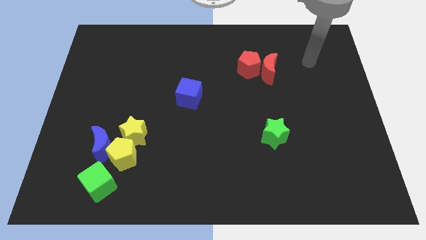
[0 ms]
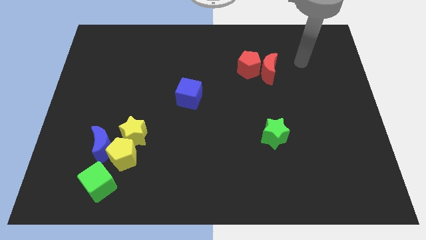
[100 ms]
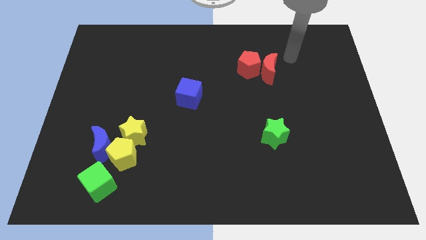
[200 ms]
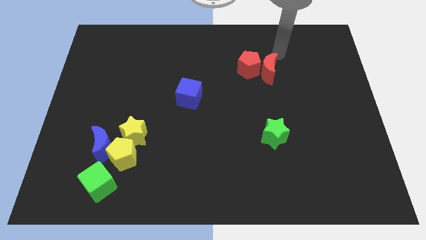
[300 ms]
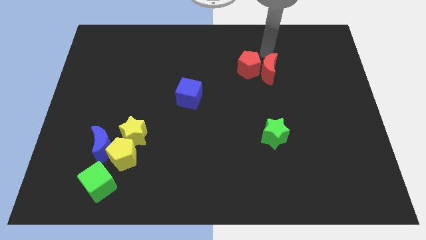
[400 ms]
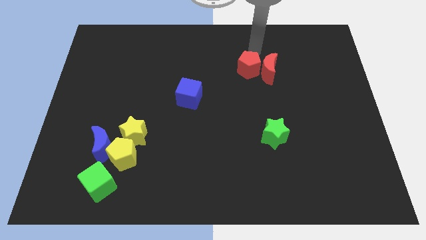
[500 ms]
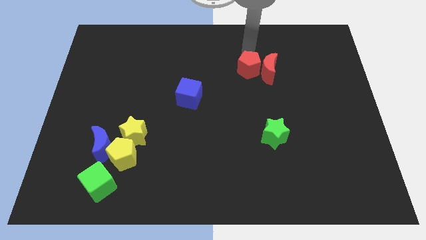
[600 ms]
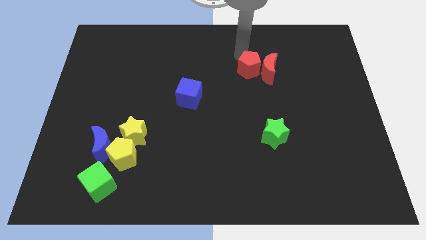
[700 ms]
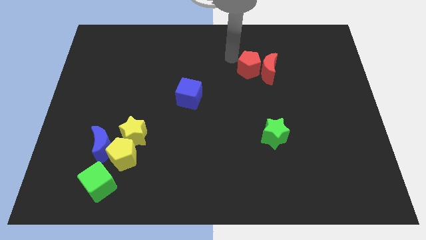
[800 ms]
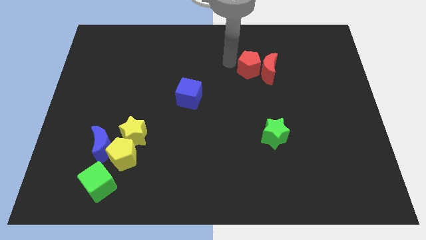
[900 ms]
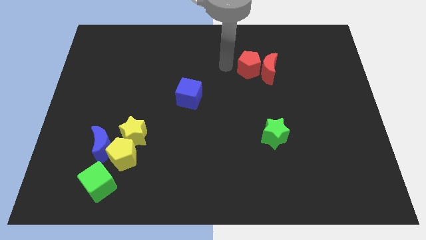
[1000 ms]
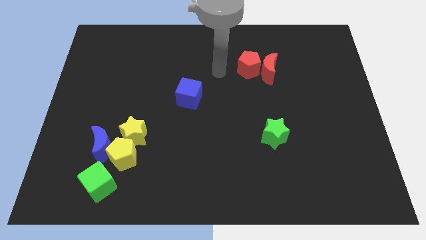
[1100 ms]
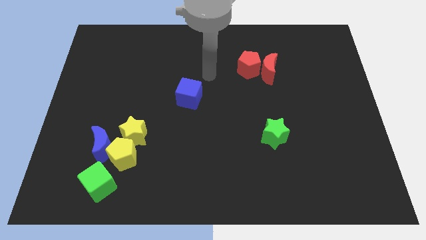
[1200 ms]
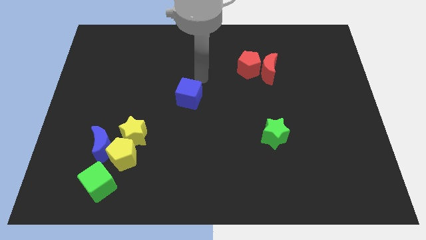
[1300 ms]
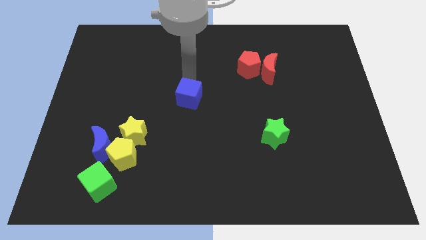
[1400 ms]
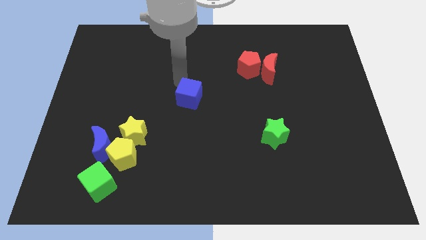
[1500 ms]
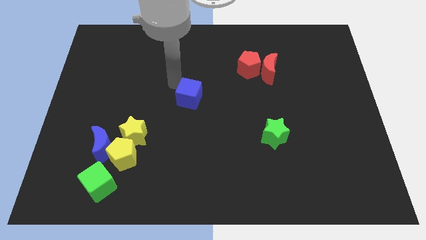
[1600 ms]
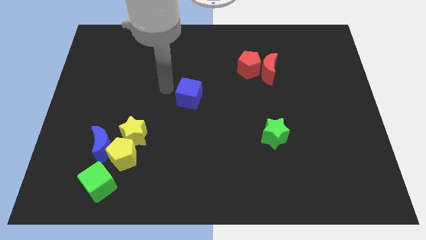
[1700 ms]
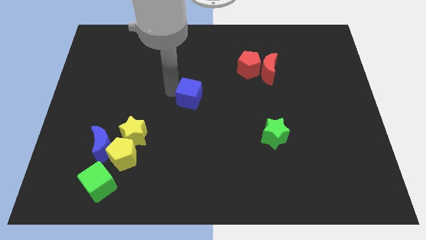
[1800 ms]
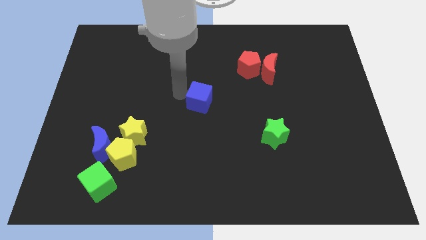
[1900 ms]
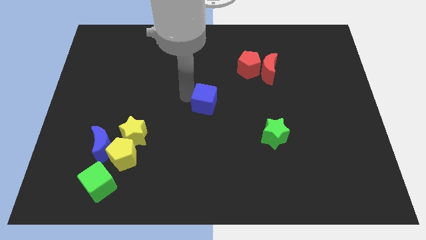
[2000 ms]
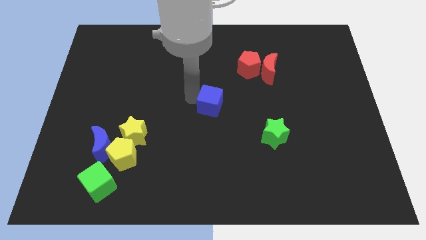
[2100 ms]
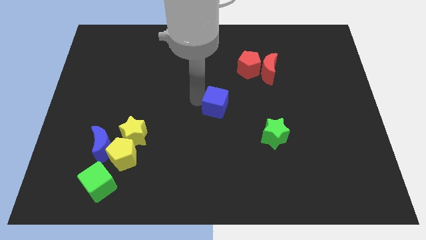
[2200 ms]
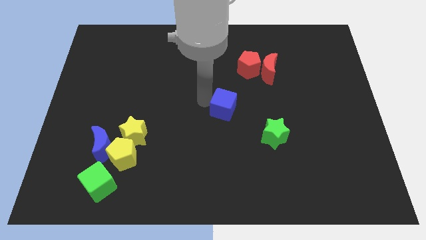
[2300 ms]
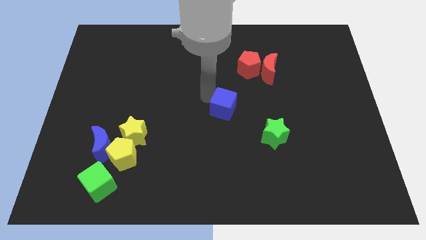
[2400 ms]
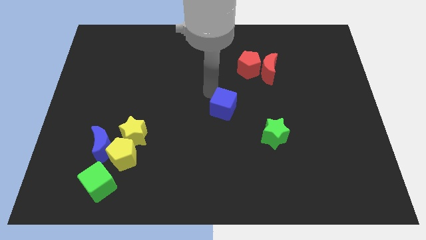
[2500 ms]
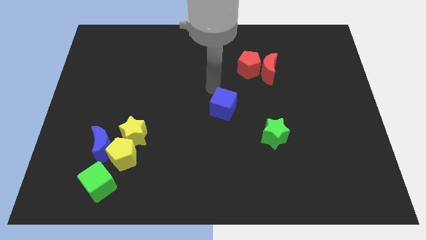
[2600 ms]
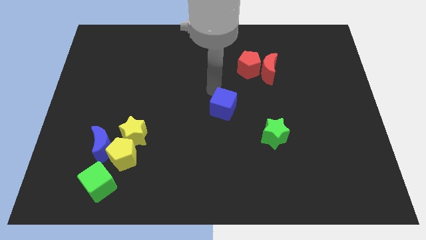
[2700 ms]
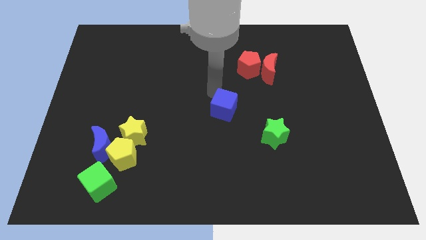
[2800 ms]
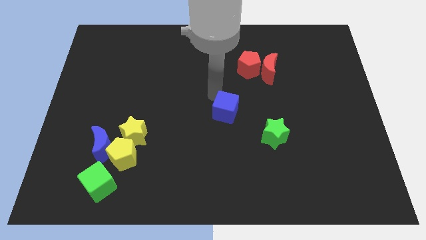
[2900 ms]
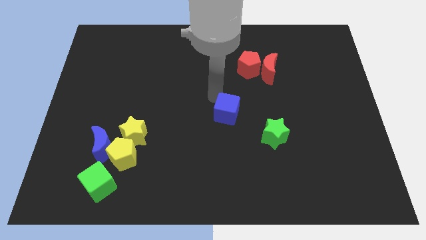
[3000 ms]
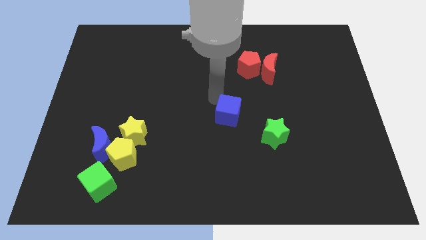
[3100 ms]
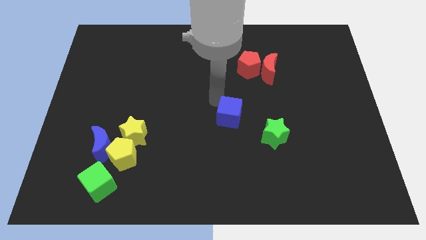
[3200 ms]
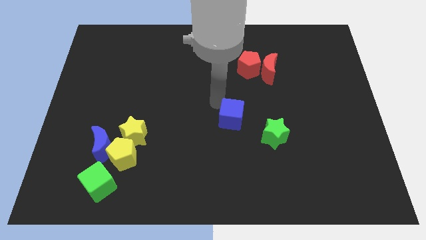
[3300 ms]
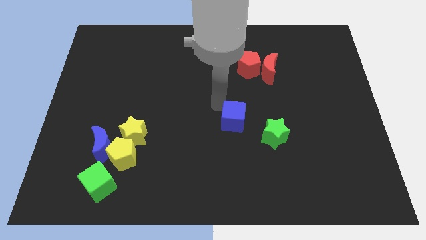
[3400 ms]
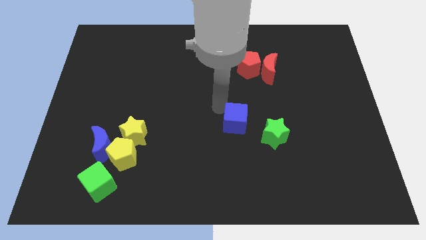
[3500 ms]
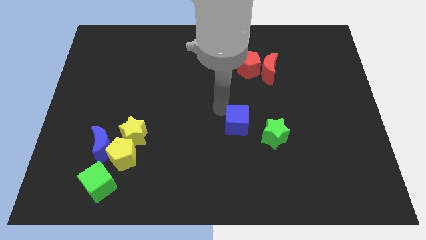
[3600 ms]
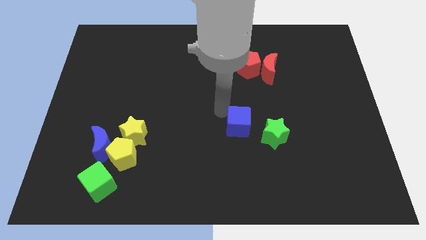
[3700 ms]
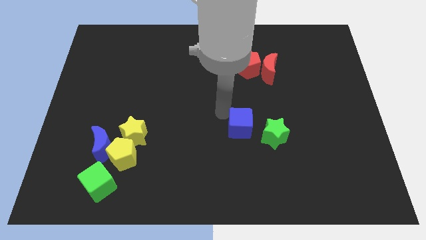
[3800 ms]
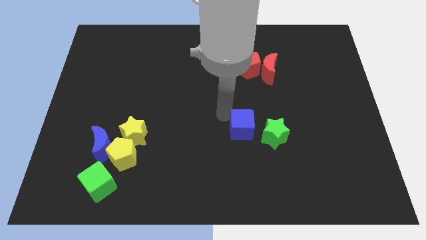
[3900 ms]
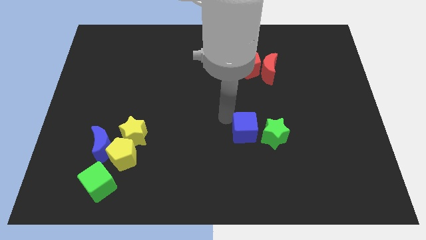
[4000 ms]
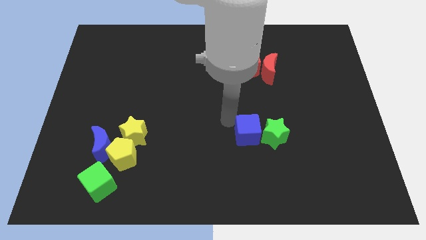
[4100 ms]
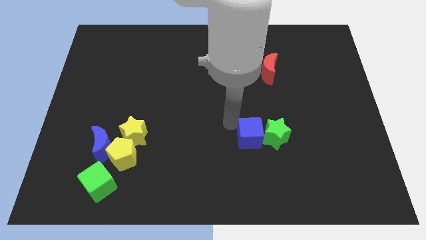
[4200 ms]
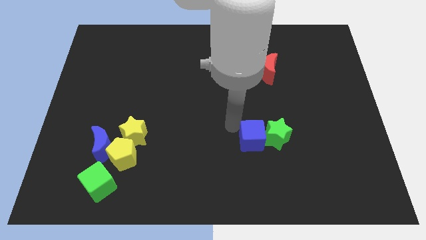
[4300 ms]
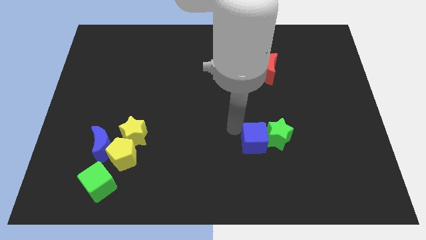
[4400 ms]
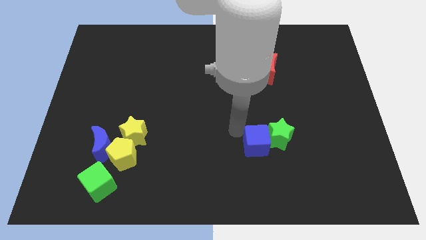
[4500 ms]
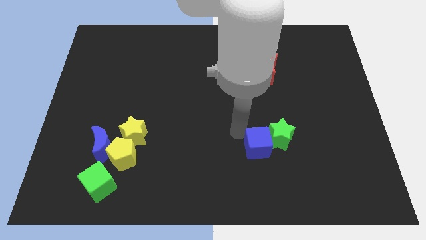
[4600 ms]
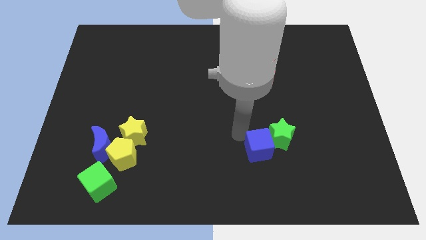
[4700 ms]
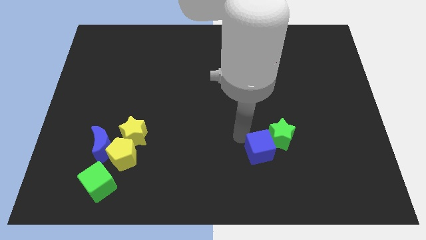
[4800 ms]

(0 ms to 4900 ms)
push the blue cube to the bottom of the green star

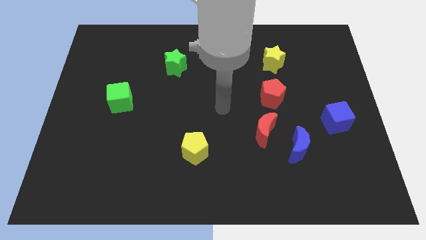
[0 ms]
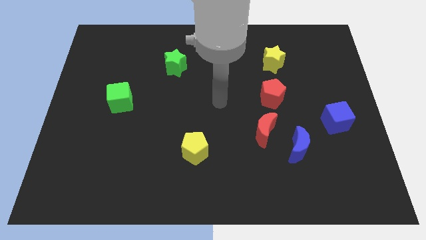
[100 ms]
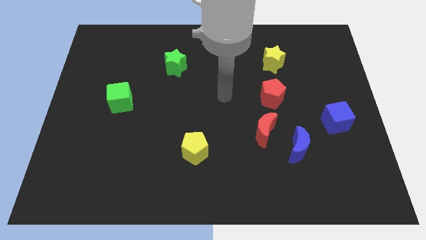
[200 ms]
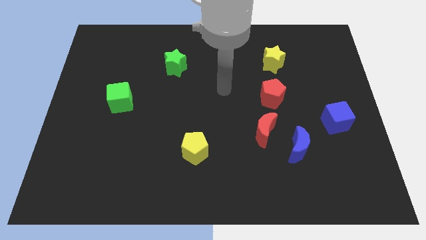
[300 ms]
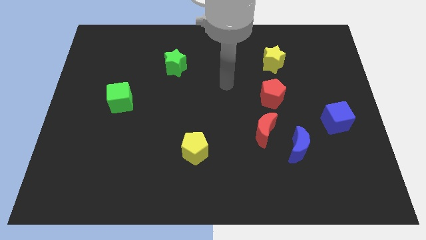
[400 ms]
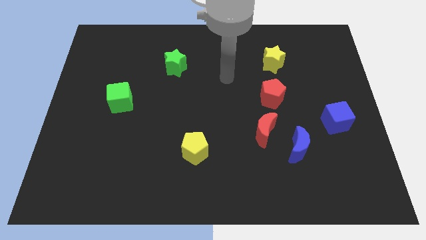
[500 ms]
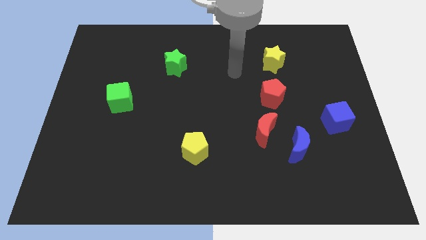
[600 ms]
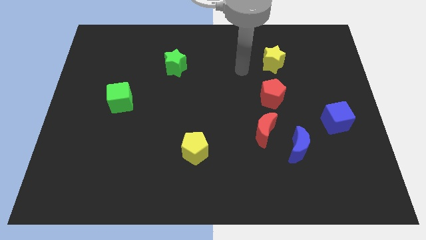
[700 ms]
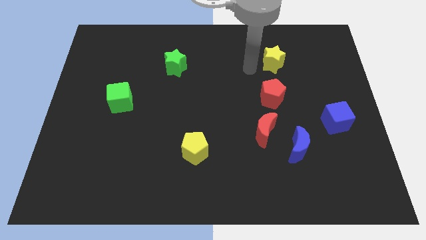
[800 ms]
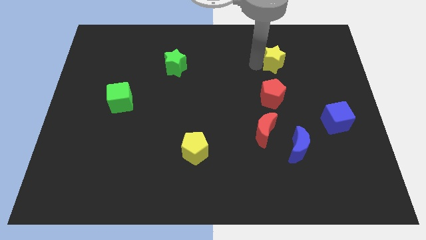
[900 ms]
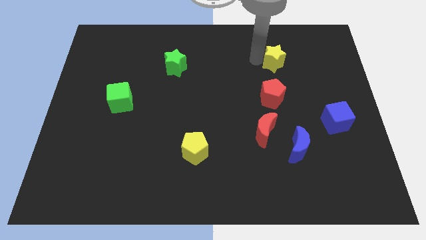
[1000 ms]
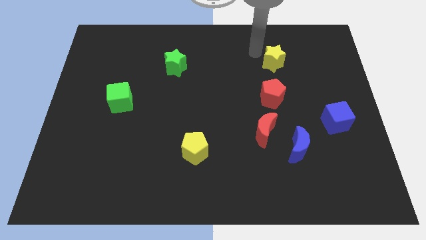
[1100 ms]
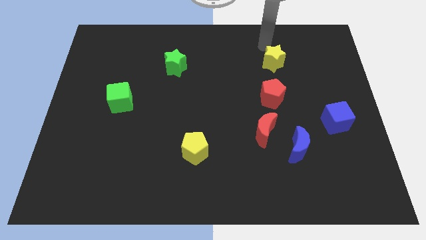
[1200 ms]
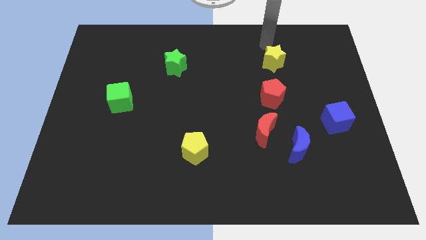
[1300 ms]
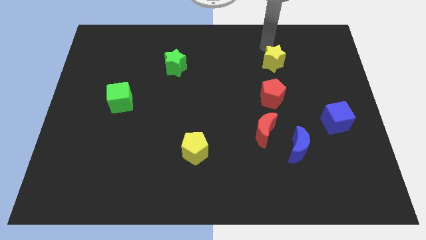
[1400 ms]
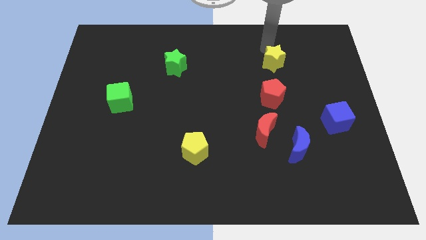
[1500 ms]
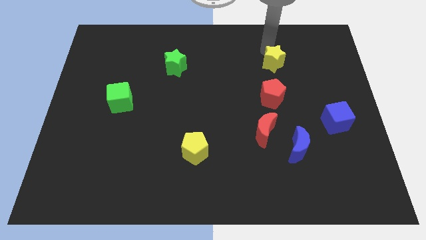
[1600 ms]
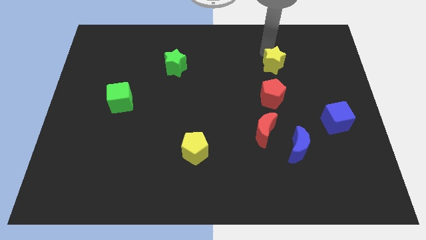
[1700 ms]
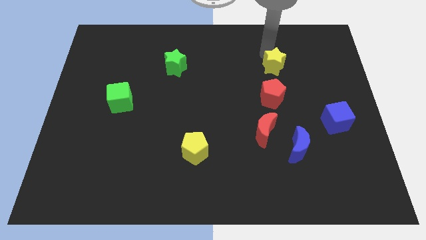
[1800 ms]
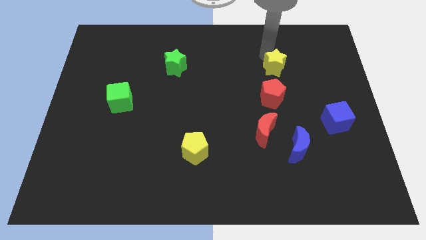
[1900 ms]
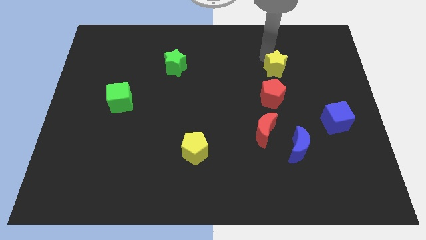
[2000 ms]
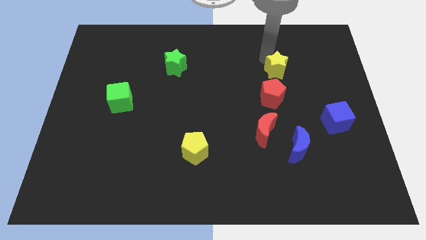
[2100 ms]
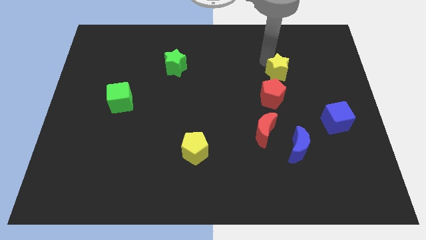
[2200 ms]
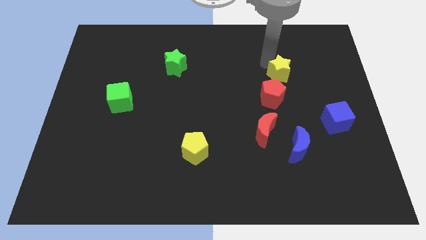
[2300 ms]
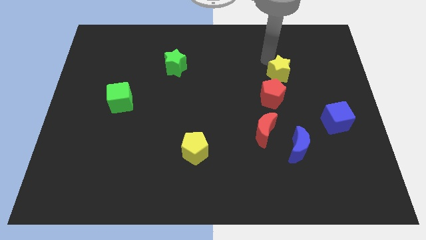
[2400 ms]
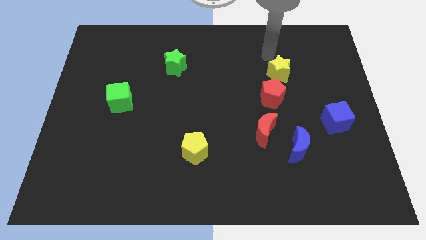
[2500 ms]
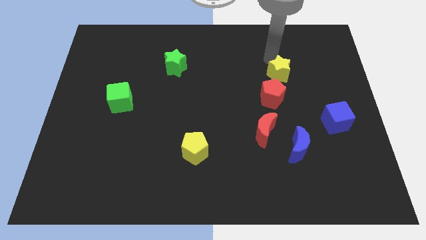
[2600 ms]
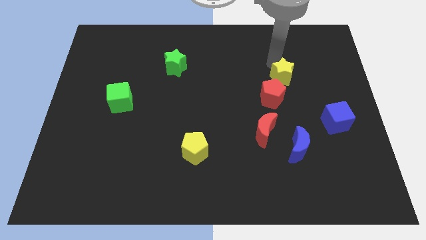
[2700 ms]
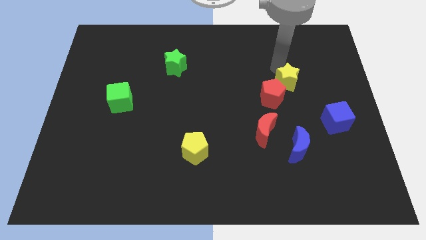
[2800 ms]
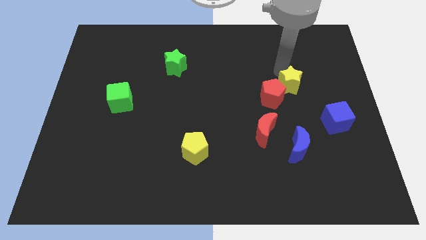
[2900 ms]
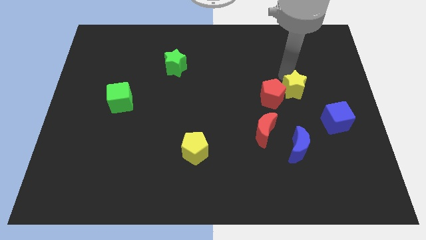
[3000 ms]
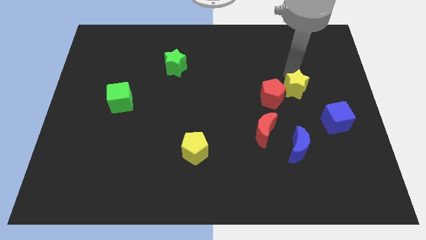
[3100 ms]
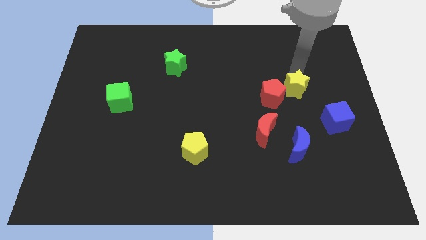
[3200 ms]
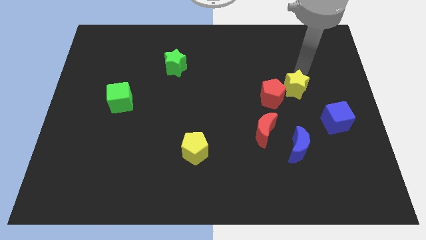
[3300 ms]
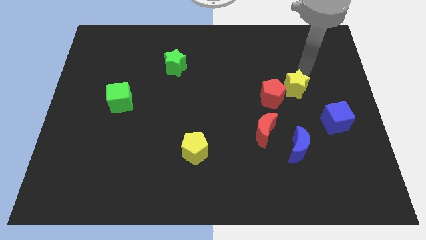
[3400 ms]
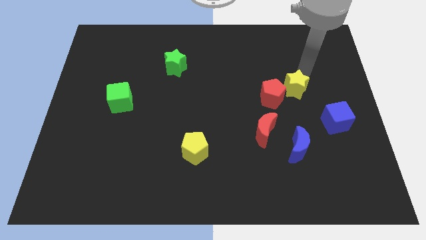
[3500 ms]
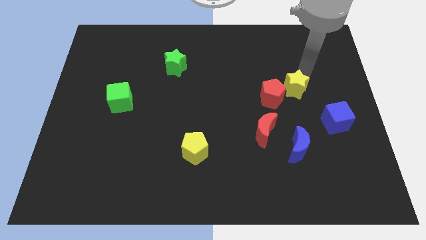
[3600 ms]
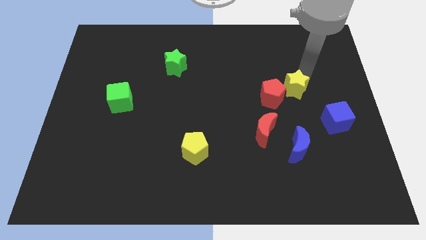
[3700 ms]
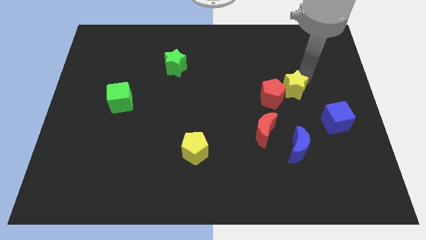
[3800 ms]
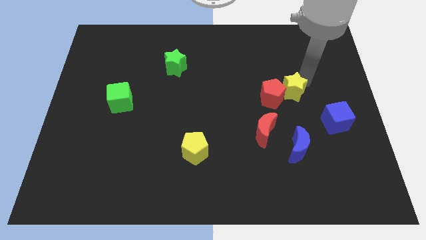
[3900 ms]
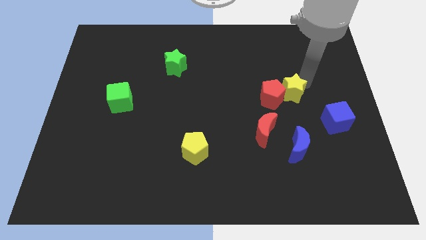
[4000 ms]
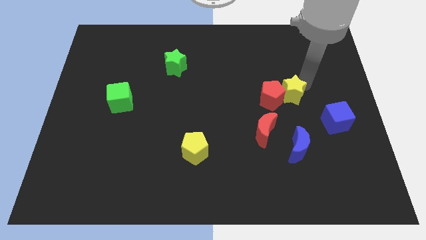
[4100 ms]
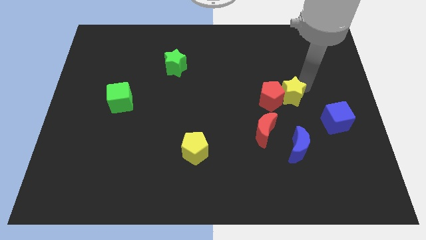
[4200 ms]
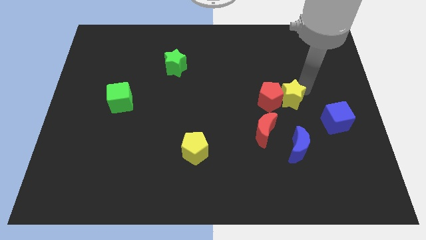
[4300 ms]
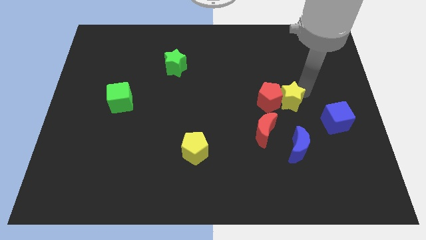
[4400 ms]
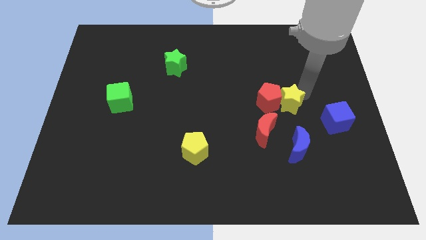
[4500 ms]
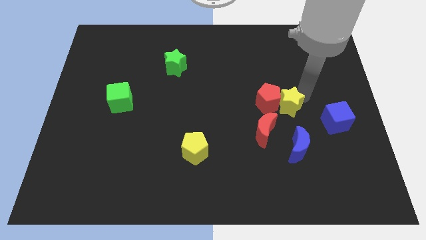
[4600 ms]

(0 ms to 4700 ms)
put the yellow star left of the blue cube
